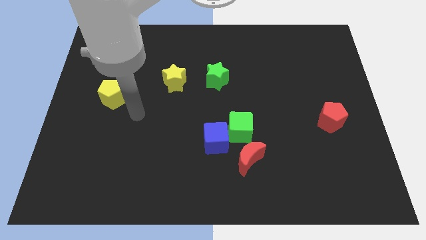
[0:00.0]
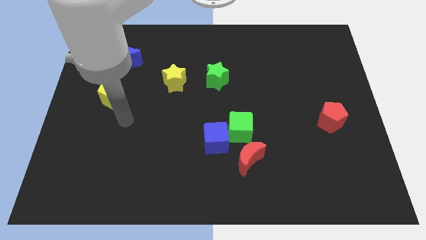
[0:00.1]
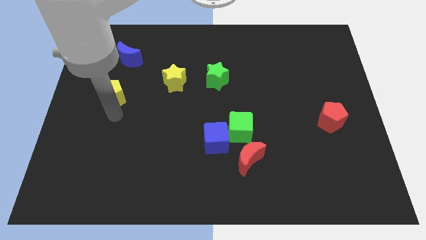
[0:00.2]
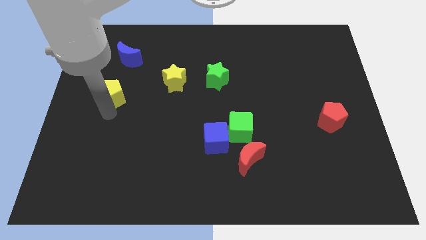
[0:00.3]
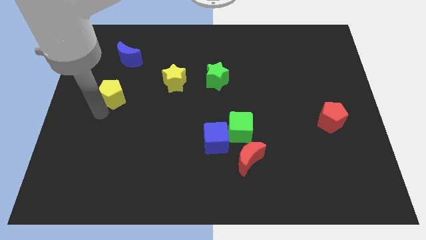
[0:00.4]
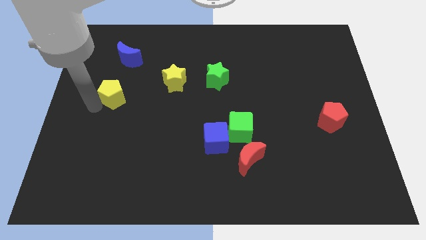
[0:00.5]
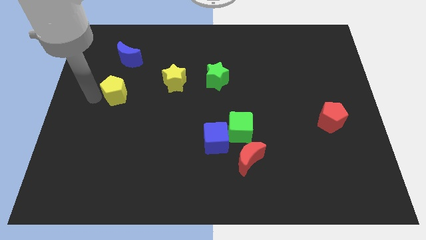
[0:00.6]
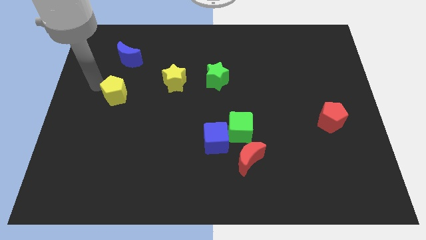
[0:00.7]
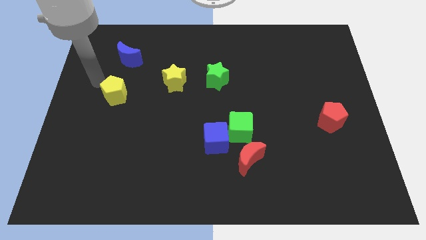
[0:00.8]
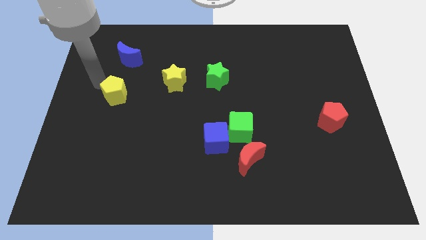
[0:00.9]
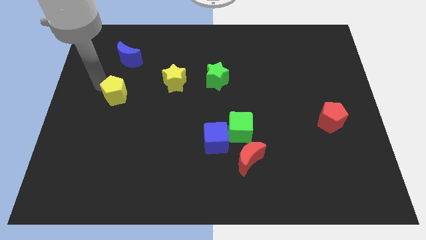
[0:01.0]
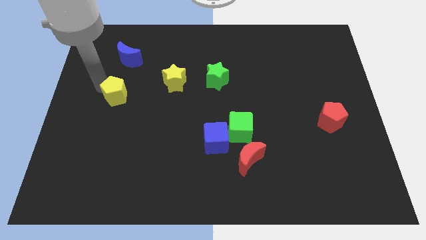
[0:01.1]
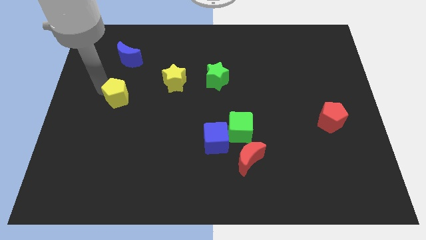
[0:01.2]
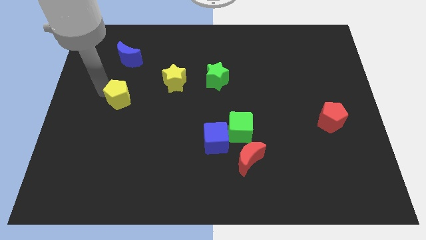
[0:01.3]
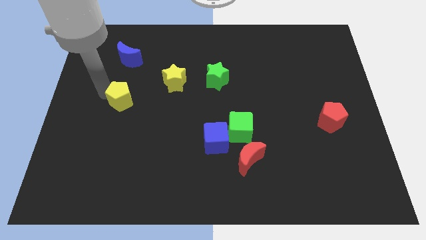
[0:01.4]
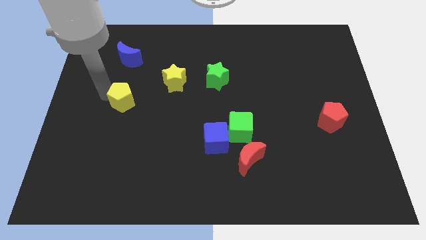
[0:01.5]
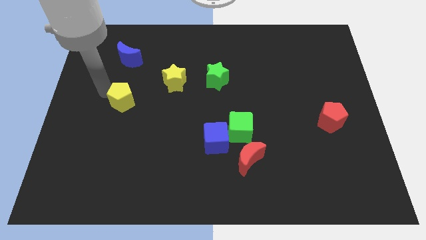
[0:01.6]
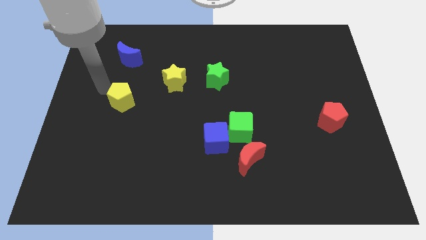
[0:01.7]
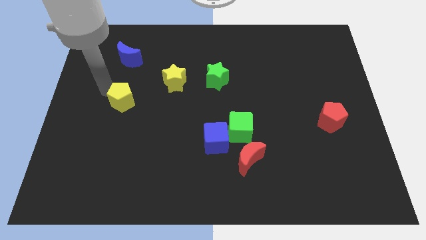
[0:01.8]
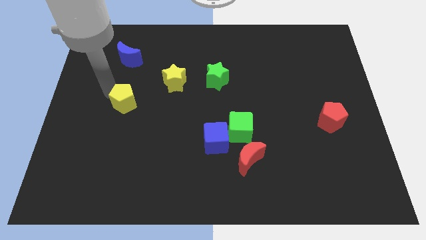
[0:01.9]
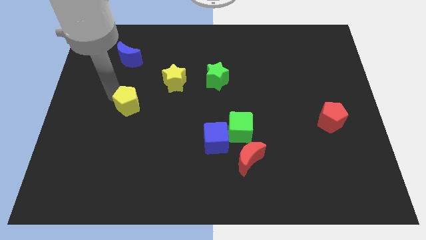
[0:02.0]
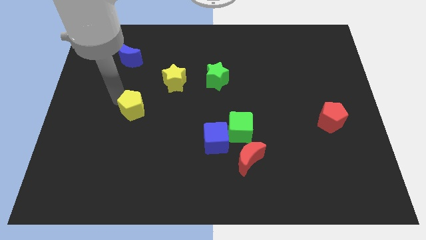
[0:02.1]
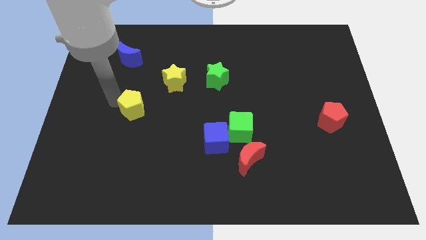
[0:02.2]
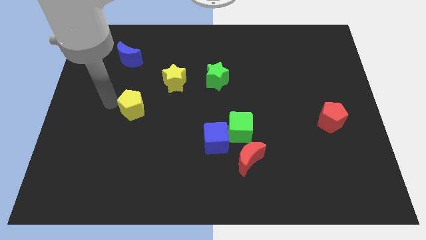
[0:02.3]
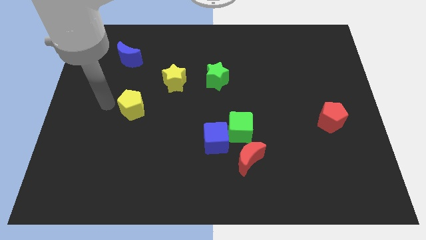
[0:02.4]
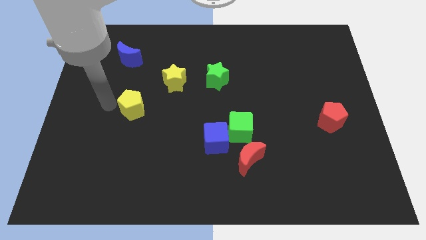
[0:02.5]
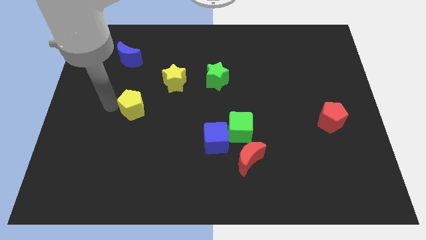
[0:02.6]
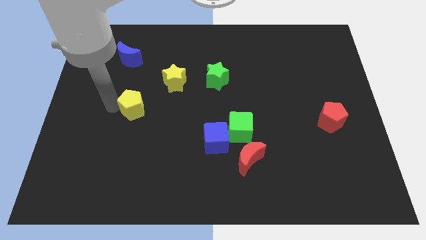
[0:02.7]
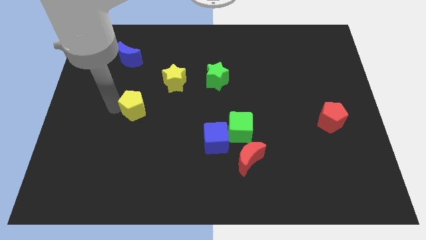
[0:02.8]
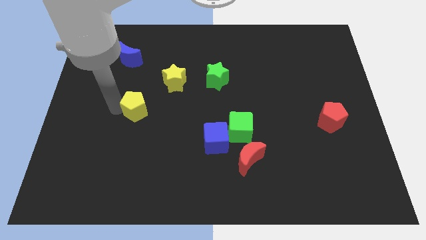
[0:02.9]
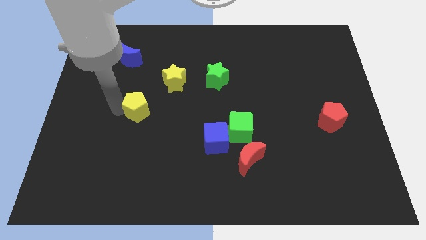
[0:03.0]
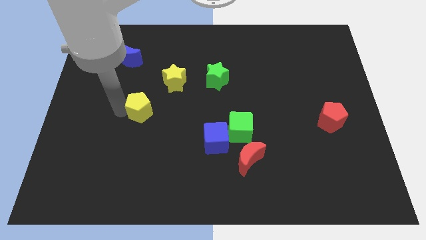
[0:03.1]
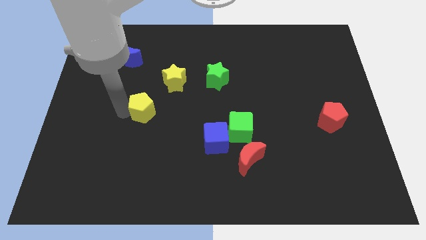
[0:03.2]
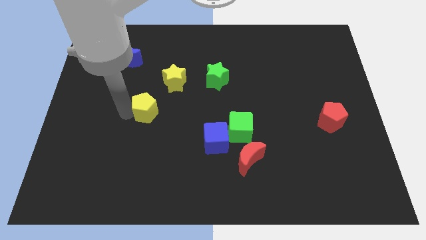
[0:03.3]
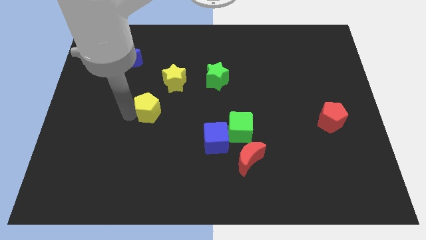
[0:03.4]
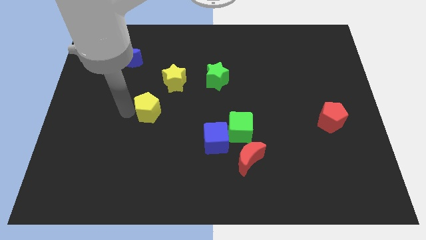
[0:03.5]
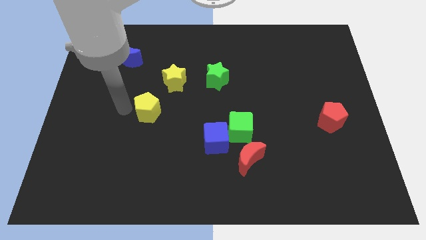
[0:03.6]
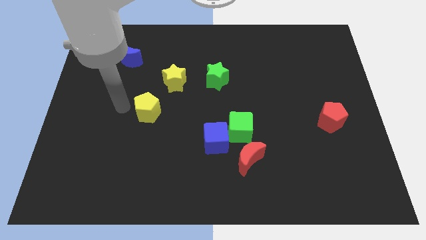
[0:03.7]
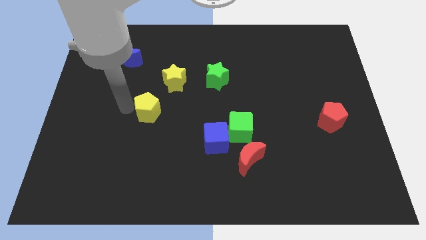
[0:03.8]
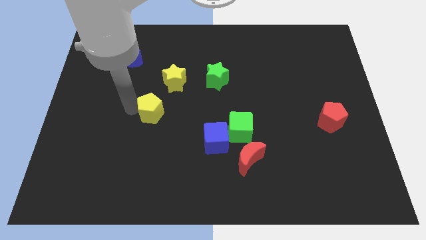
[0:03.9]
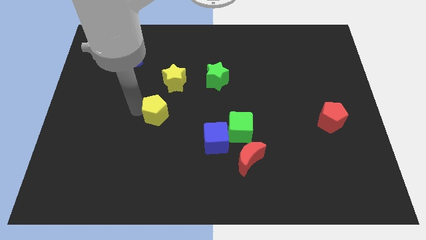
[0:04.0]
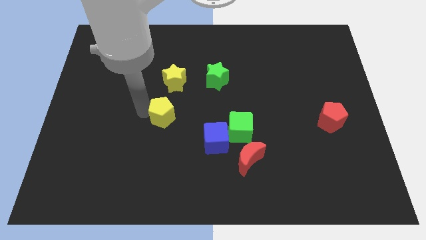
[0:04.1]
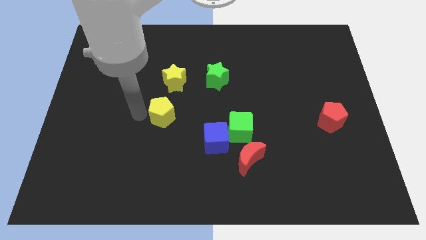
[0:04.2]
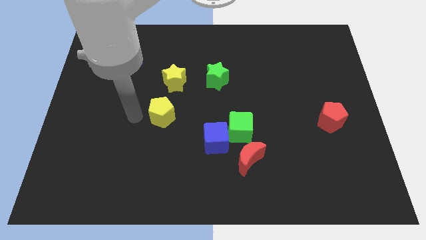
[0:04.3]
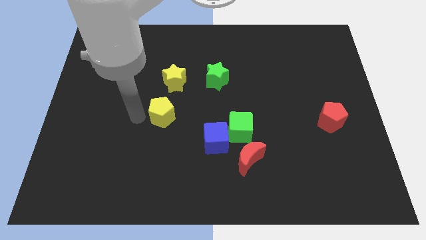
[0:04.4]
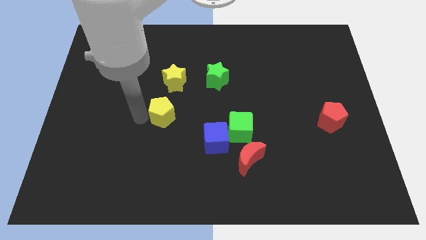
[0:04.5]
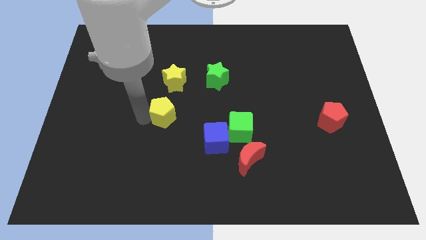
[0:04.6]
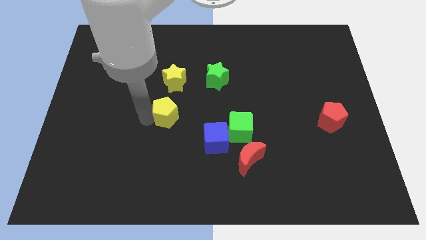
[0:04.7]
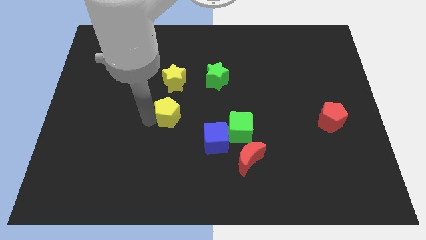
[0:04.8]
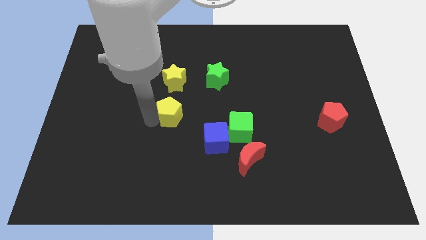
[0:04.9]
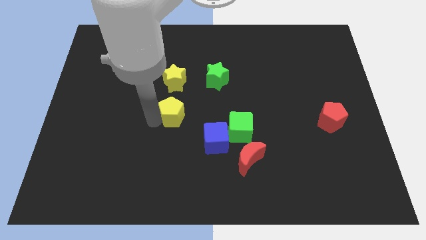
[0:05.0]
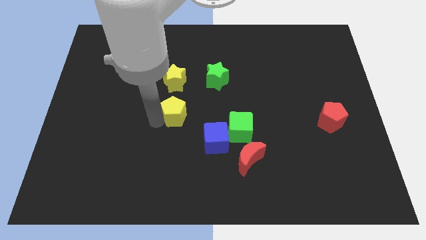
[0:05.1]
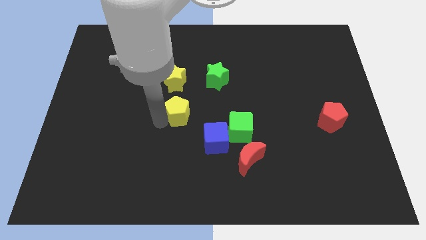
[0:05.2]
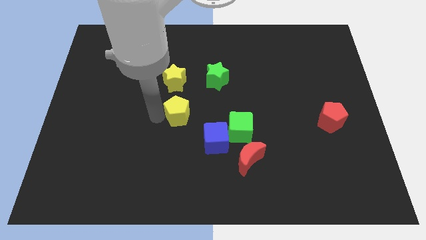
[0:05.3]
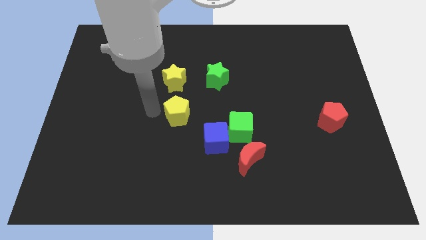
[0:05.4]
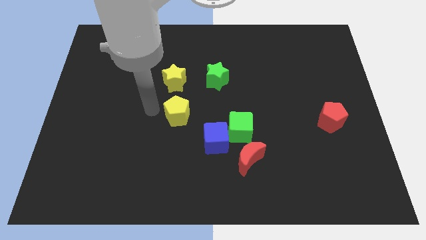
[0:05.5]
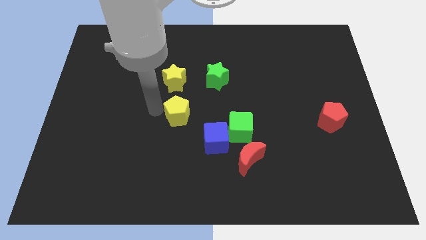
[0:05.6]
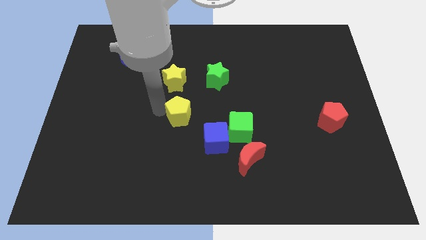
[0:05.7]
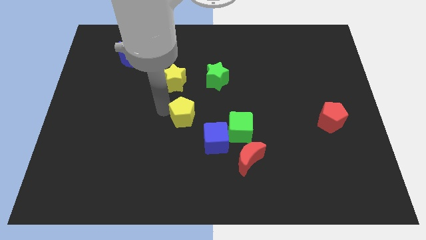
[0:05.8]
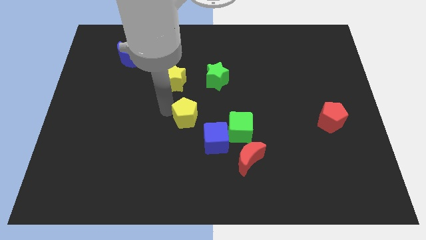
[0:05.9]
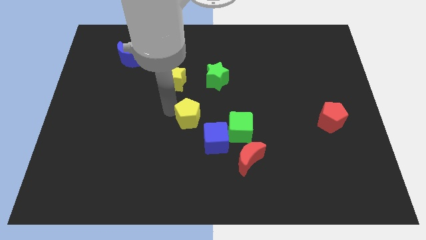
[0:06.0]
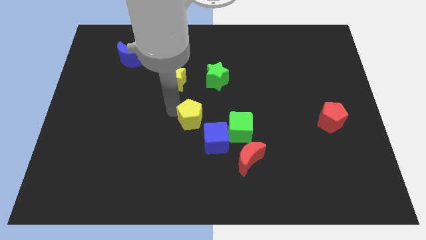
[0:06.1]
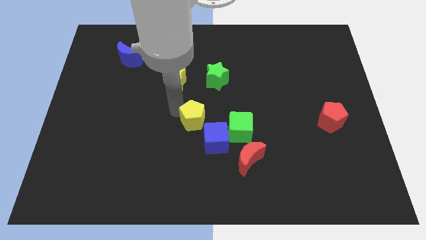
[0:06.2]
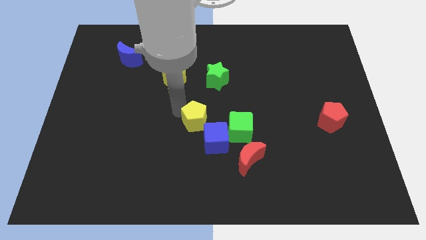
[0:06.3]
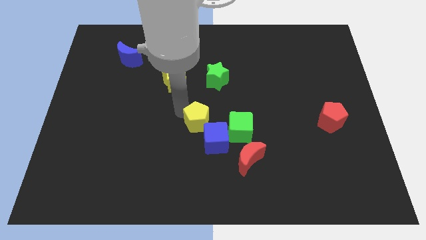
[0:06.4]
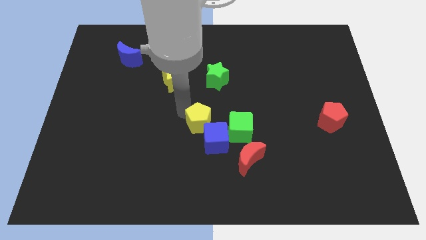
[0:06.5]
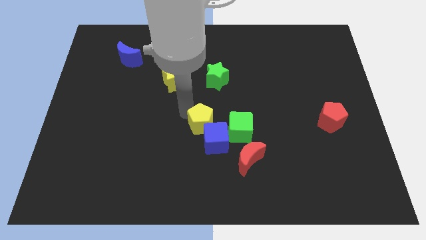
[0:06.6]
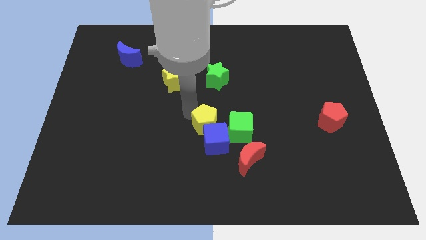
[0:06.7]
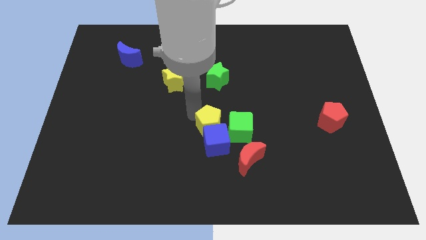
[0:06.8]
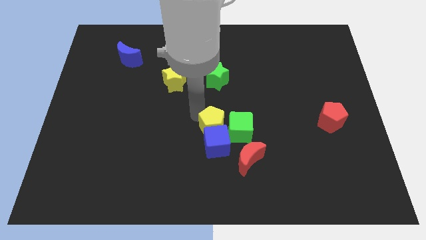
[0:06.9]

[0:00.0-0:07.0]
put the yellow pentagon to the green cube
